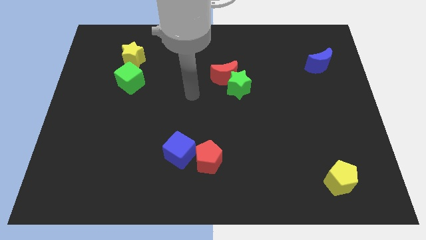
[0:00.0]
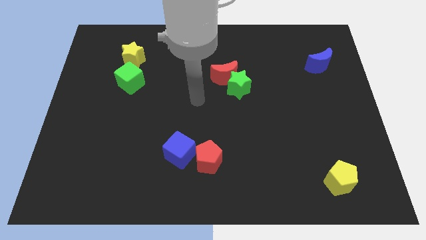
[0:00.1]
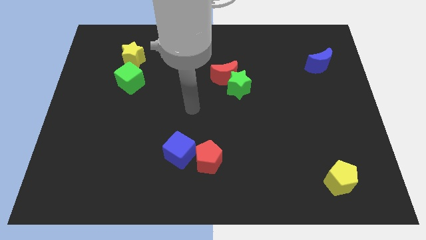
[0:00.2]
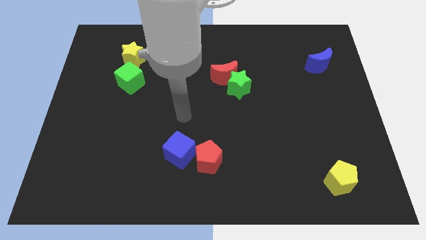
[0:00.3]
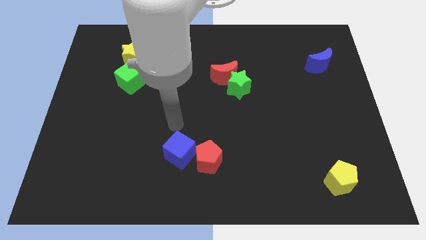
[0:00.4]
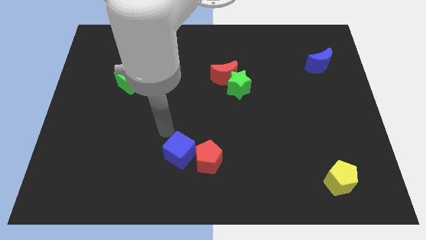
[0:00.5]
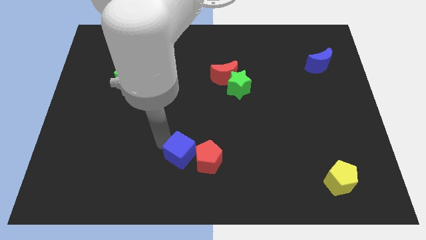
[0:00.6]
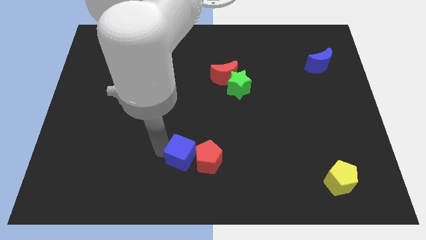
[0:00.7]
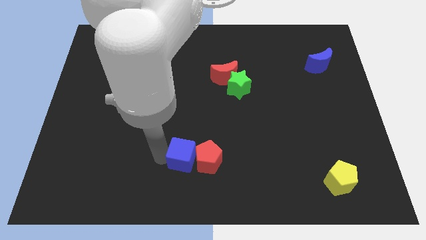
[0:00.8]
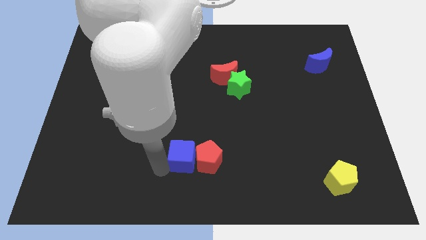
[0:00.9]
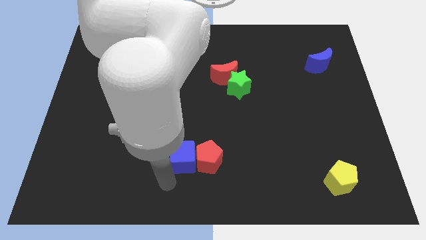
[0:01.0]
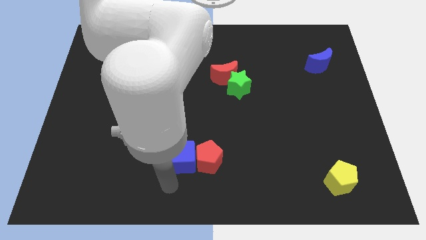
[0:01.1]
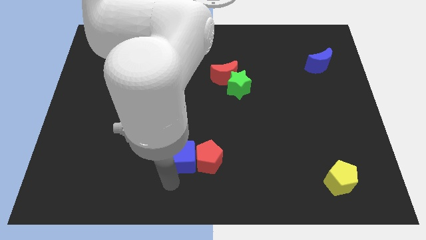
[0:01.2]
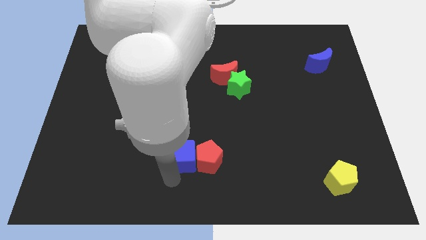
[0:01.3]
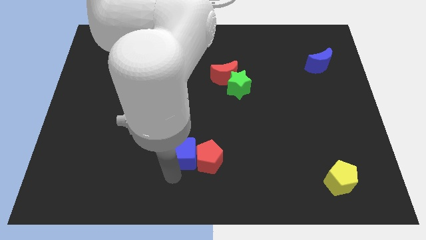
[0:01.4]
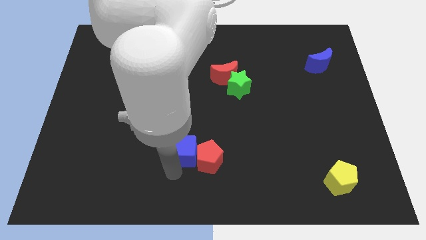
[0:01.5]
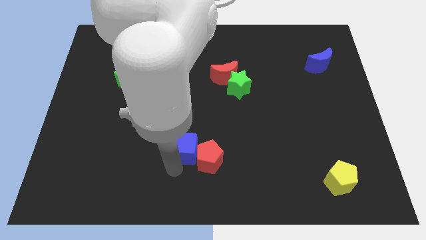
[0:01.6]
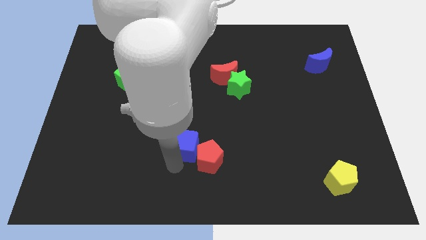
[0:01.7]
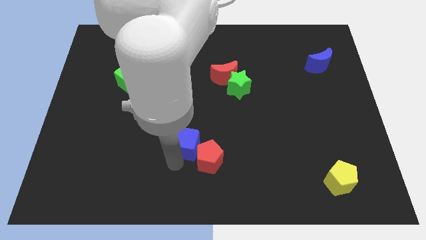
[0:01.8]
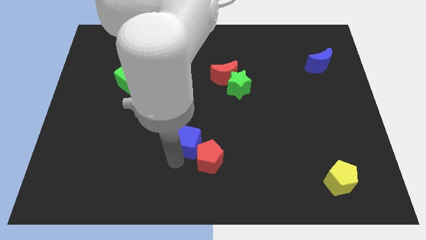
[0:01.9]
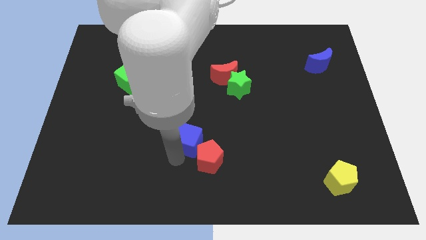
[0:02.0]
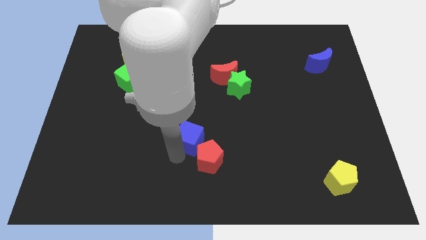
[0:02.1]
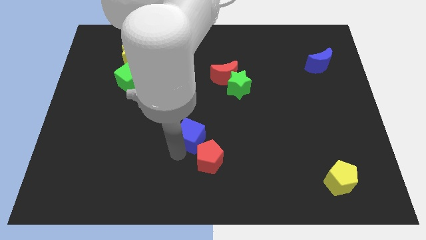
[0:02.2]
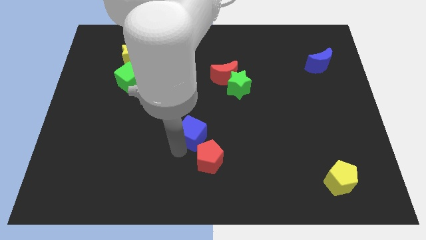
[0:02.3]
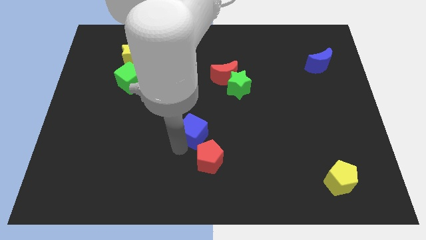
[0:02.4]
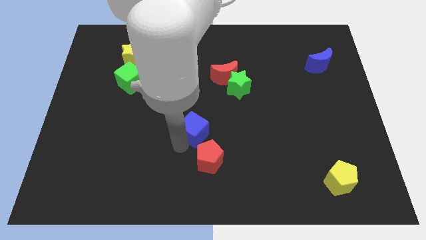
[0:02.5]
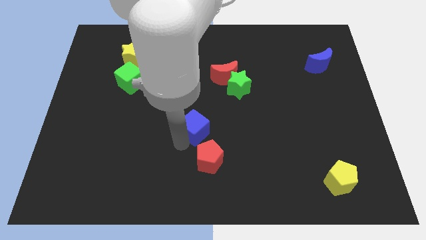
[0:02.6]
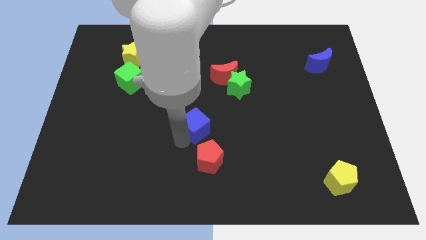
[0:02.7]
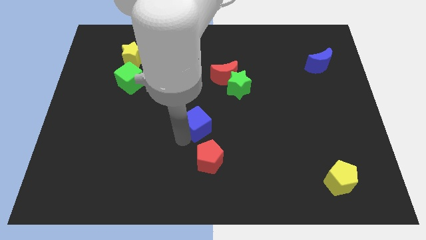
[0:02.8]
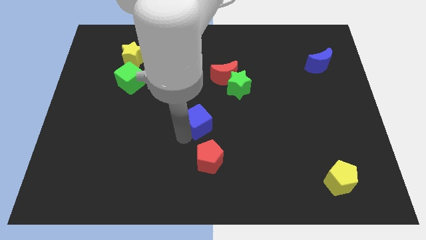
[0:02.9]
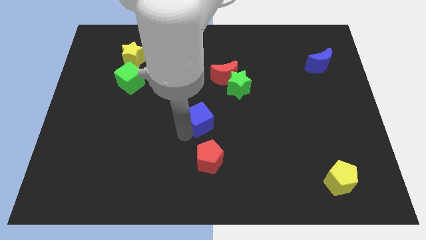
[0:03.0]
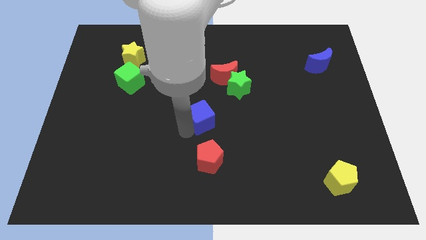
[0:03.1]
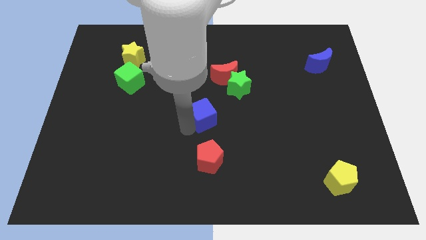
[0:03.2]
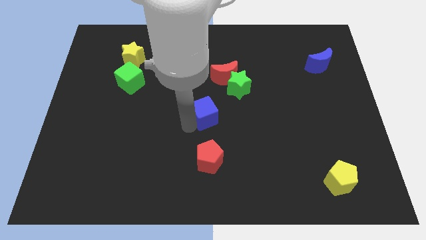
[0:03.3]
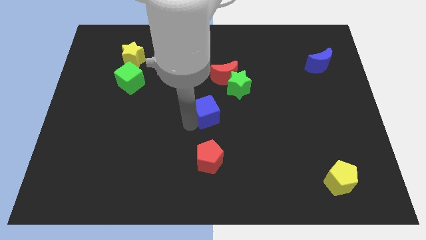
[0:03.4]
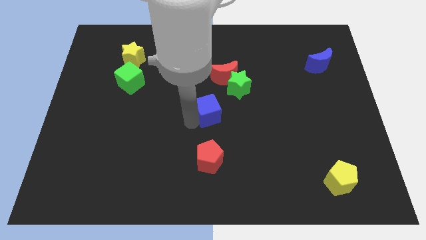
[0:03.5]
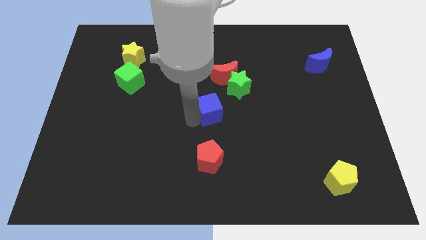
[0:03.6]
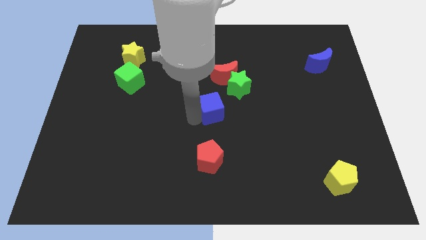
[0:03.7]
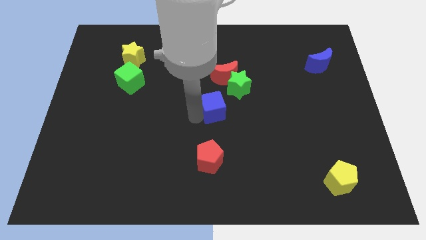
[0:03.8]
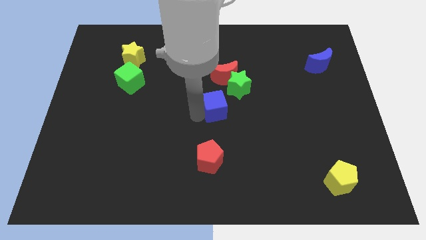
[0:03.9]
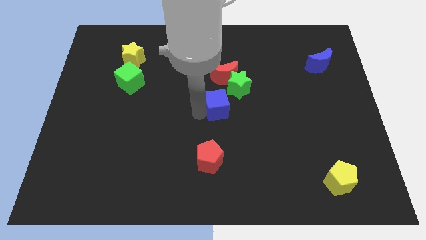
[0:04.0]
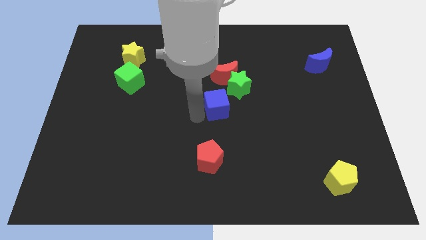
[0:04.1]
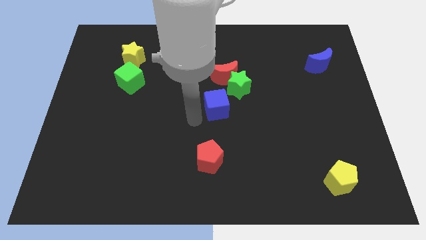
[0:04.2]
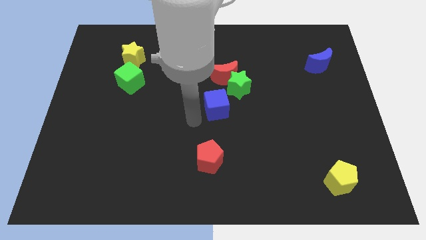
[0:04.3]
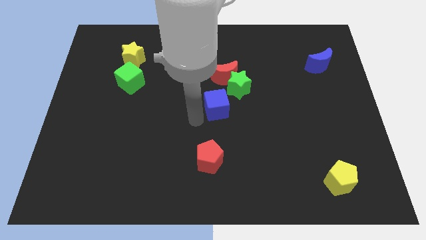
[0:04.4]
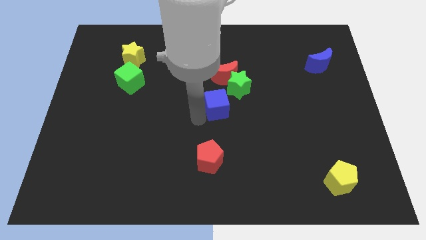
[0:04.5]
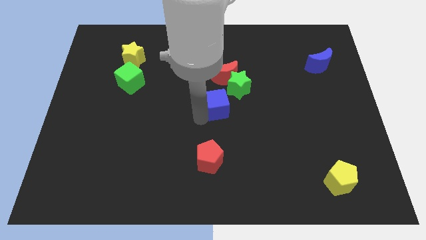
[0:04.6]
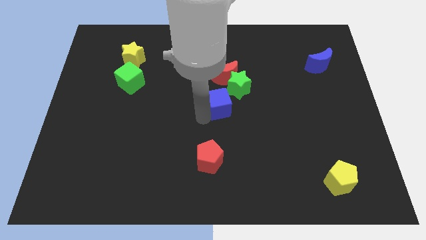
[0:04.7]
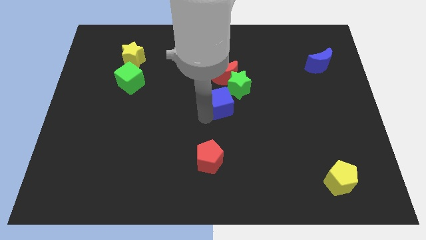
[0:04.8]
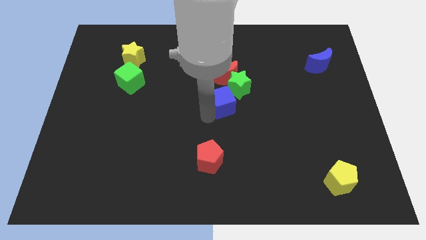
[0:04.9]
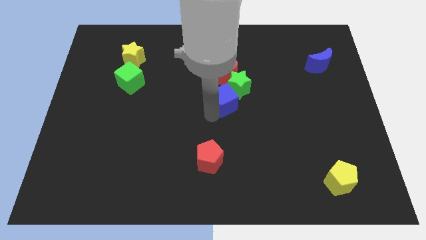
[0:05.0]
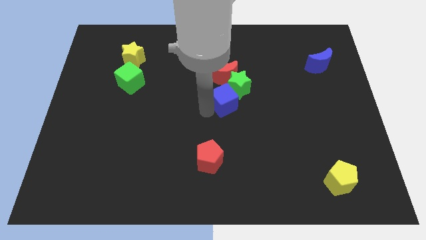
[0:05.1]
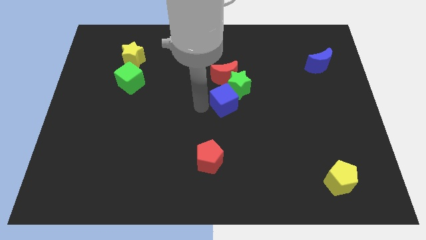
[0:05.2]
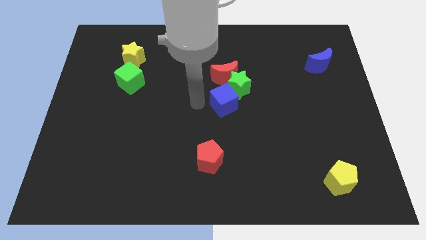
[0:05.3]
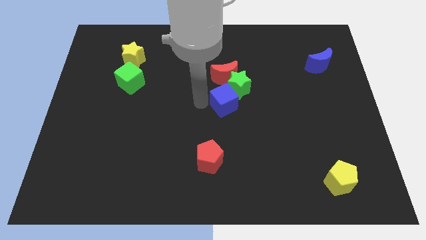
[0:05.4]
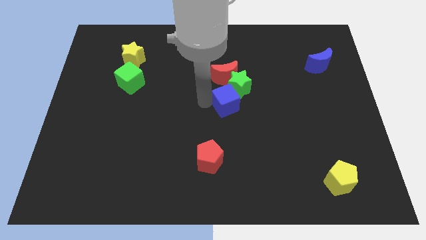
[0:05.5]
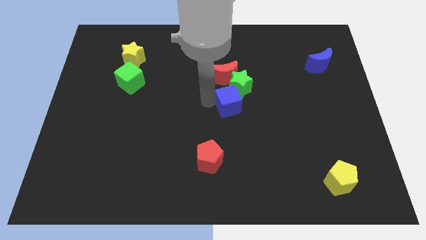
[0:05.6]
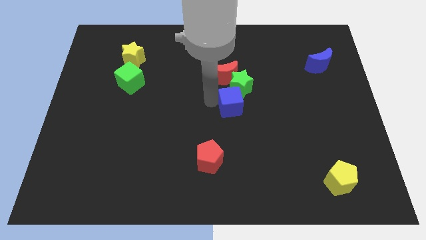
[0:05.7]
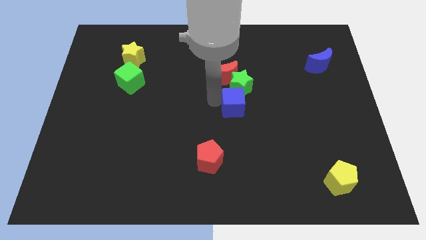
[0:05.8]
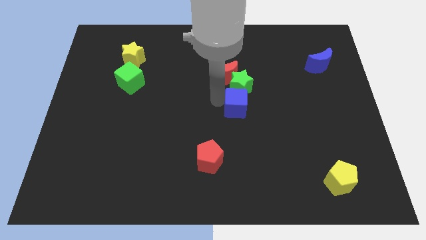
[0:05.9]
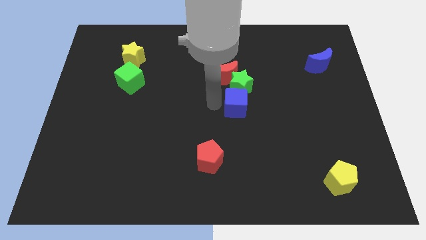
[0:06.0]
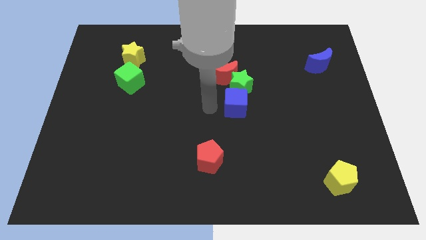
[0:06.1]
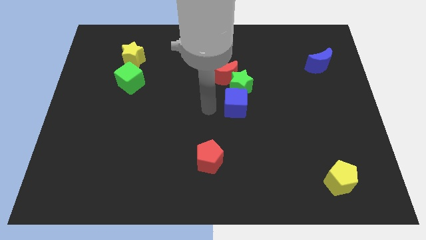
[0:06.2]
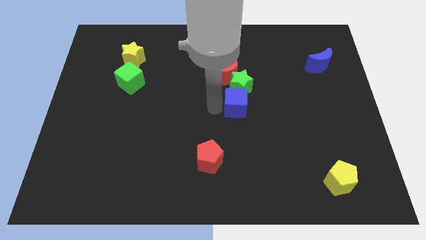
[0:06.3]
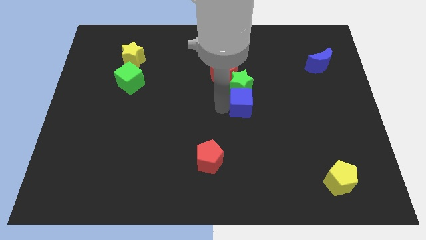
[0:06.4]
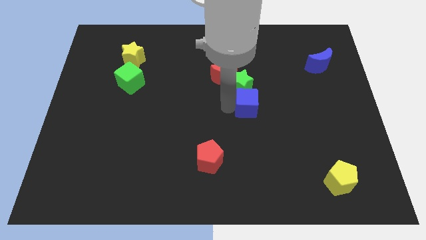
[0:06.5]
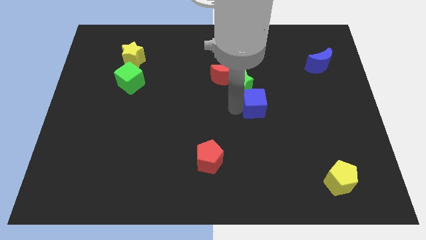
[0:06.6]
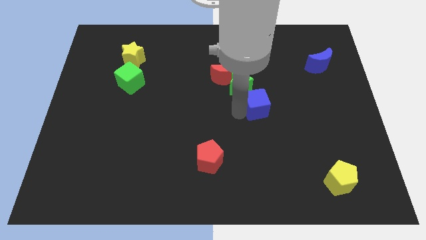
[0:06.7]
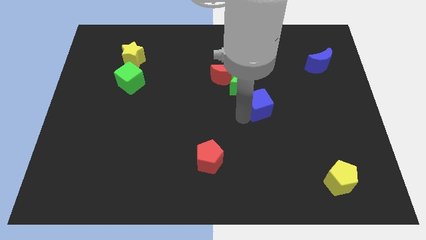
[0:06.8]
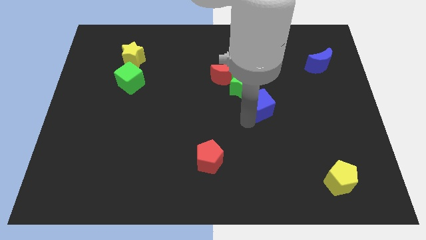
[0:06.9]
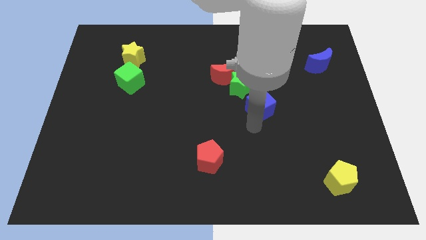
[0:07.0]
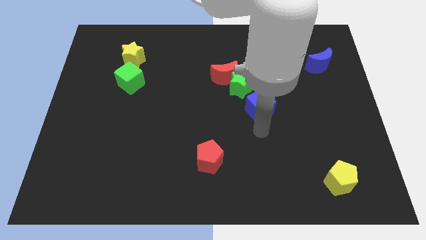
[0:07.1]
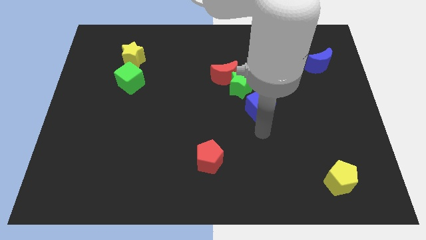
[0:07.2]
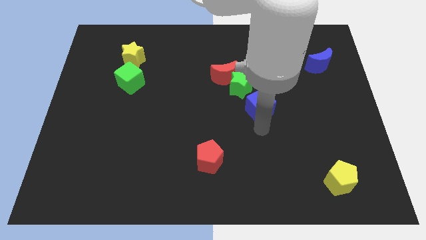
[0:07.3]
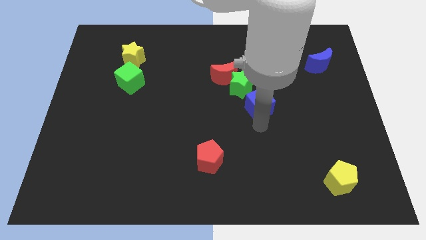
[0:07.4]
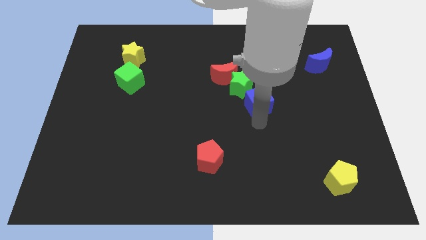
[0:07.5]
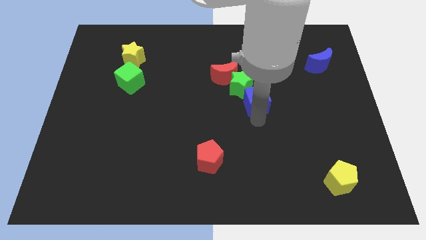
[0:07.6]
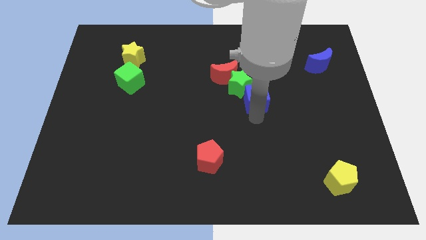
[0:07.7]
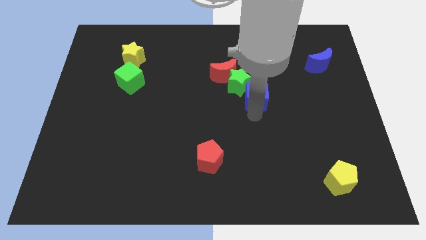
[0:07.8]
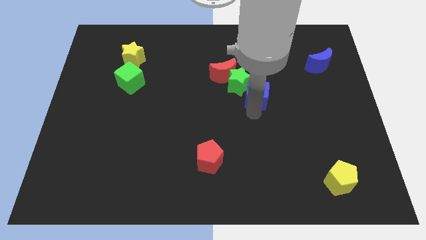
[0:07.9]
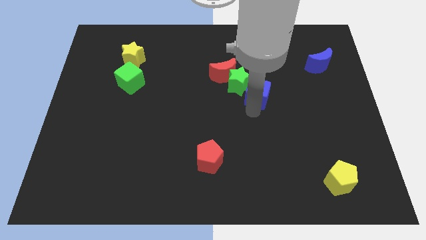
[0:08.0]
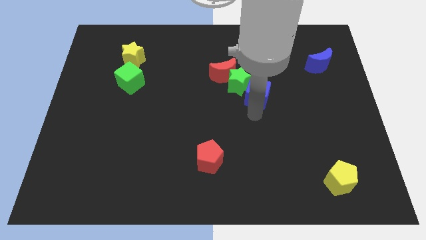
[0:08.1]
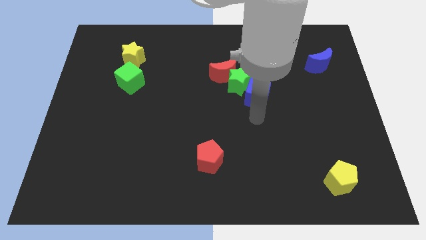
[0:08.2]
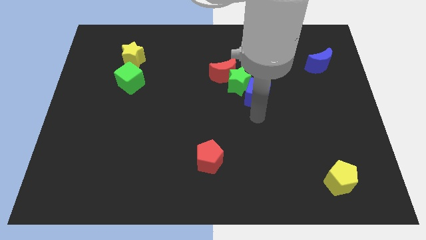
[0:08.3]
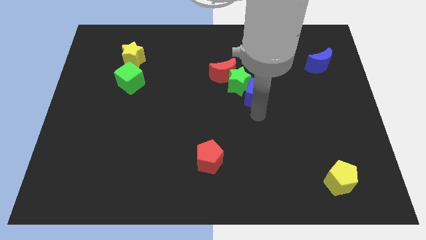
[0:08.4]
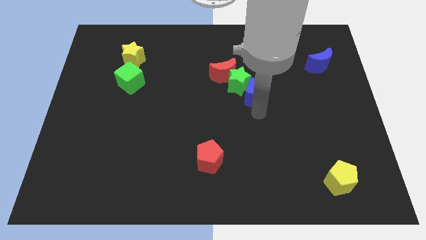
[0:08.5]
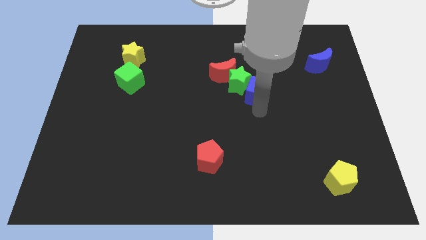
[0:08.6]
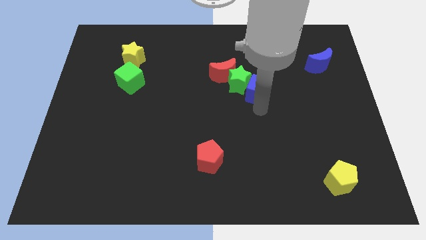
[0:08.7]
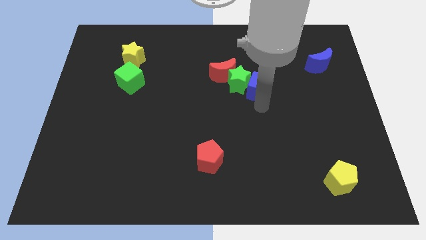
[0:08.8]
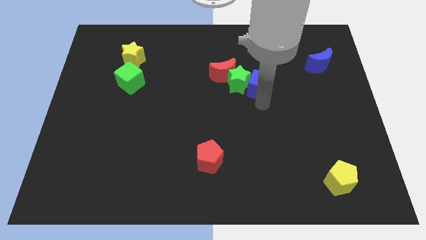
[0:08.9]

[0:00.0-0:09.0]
slide the blue cube to the top right side of the green star
